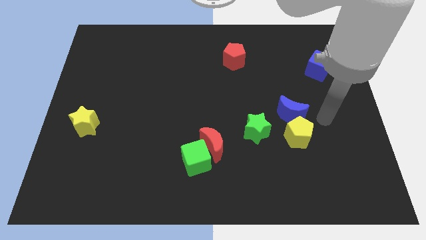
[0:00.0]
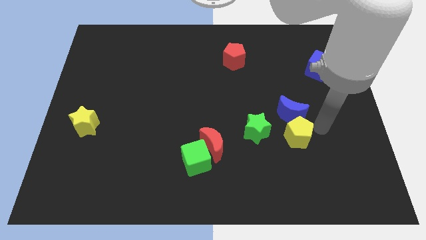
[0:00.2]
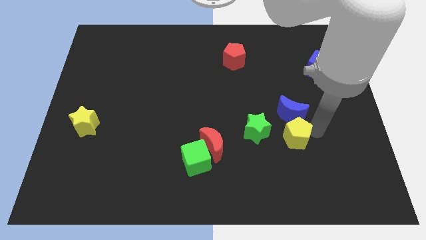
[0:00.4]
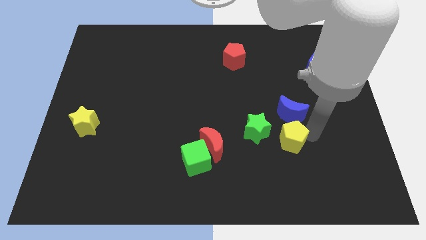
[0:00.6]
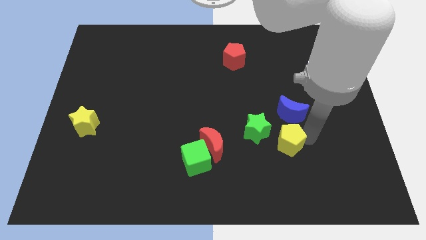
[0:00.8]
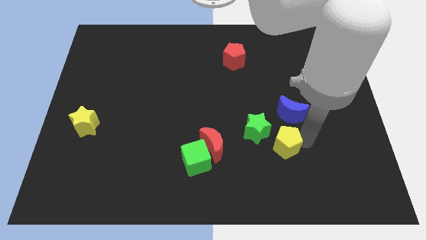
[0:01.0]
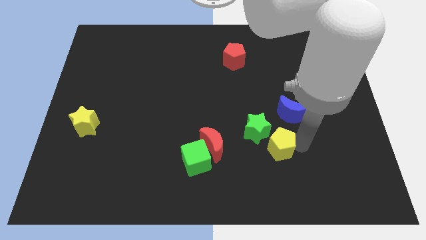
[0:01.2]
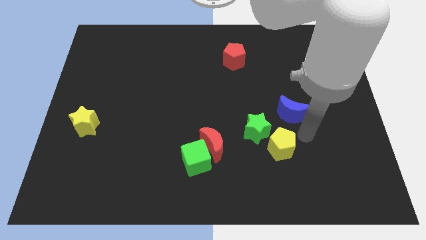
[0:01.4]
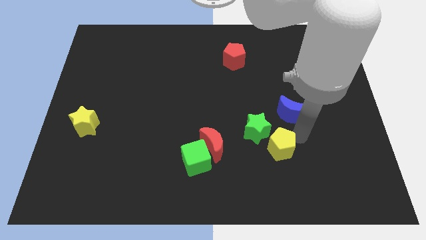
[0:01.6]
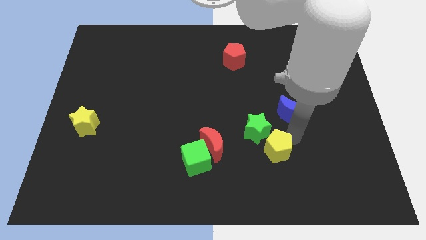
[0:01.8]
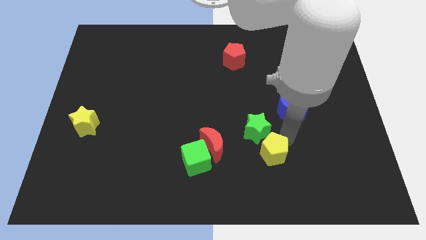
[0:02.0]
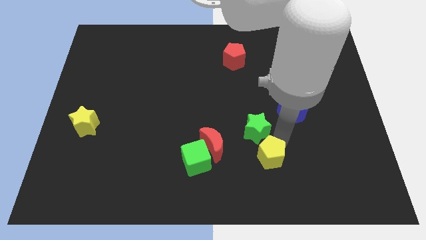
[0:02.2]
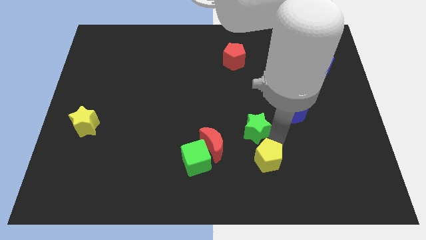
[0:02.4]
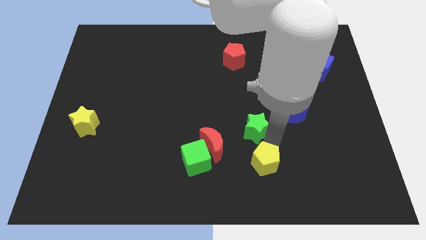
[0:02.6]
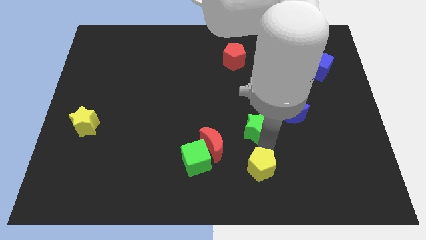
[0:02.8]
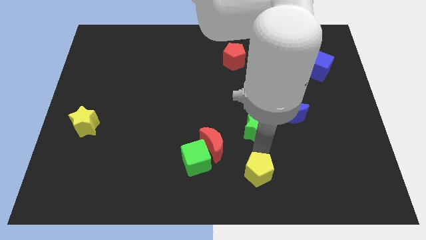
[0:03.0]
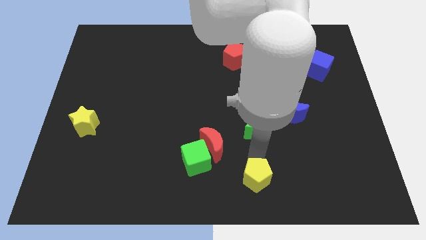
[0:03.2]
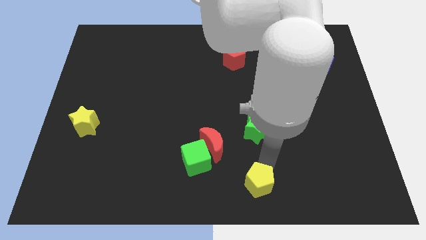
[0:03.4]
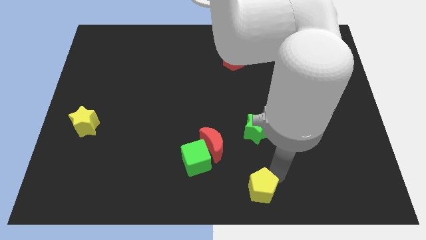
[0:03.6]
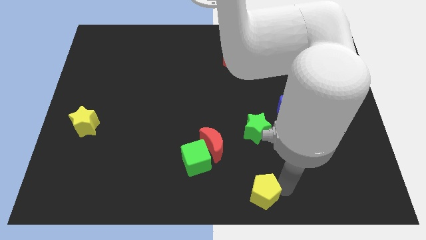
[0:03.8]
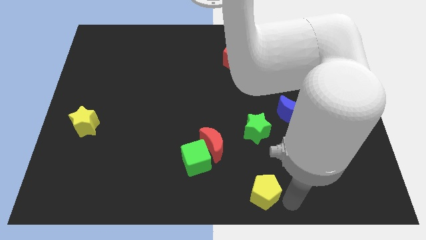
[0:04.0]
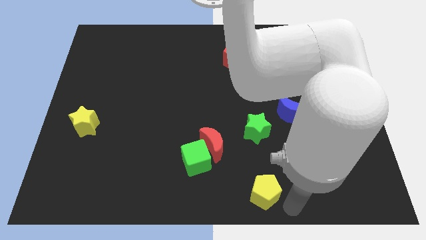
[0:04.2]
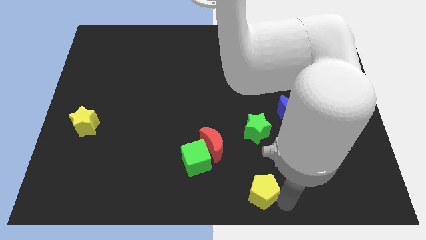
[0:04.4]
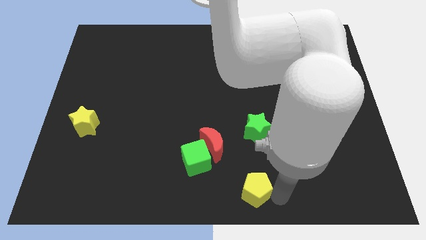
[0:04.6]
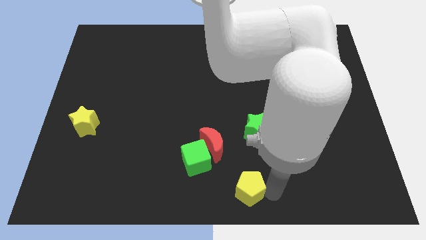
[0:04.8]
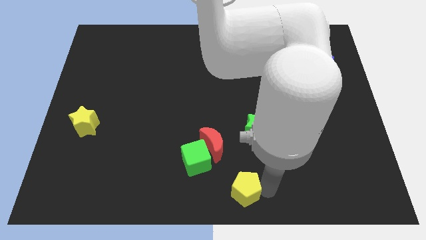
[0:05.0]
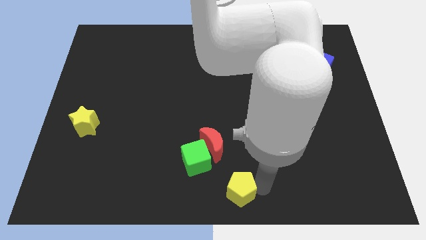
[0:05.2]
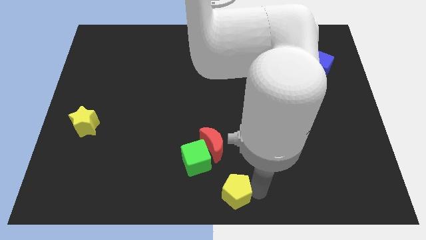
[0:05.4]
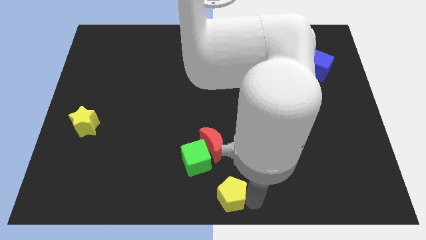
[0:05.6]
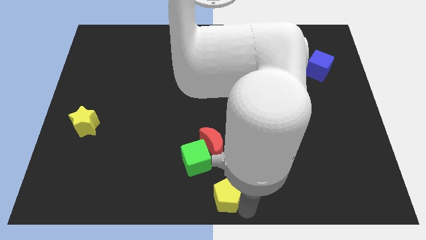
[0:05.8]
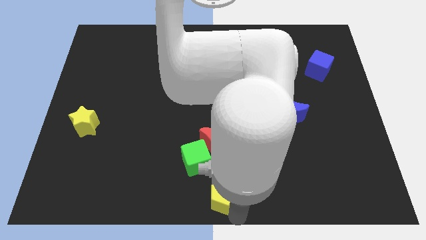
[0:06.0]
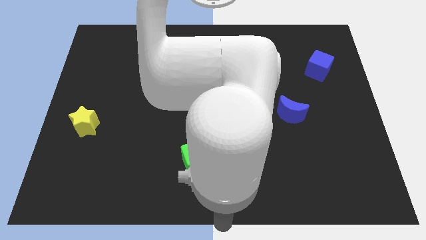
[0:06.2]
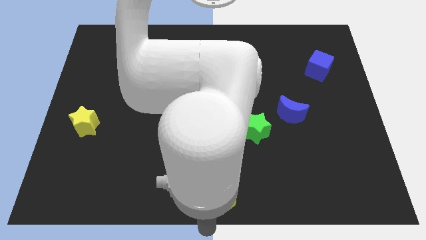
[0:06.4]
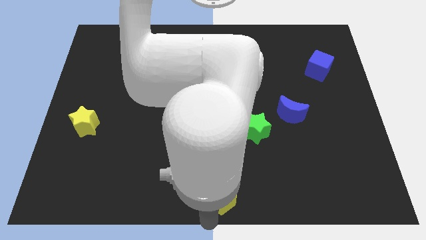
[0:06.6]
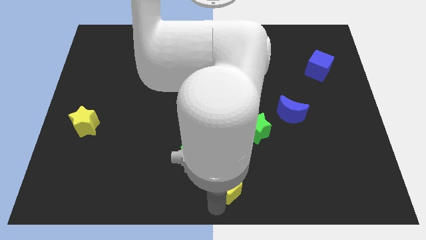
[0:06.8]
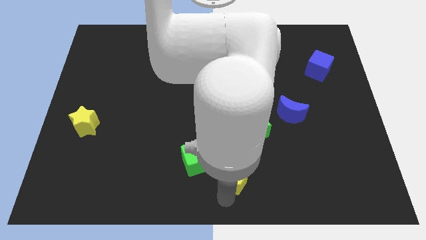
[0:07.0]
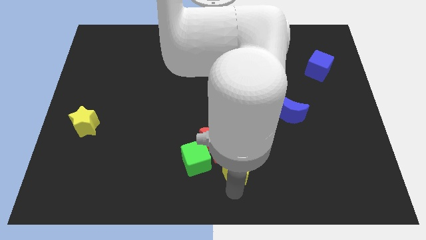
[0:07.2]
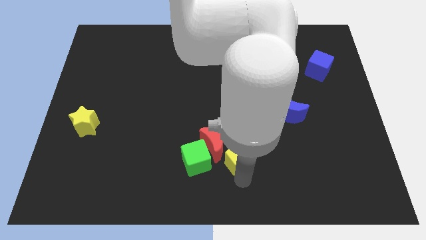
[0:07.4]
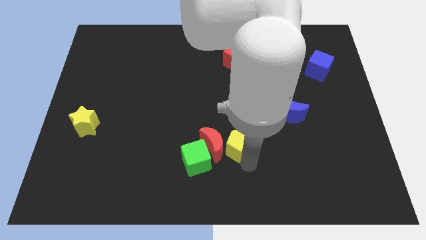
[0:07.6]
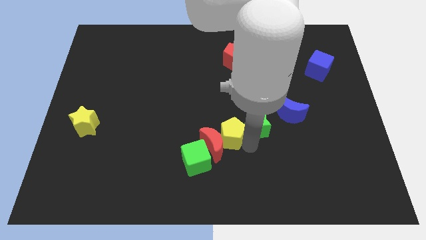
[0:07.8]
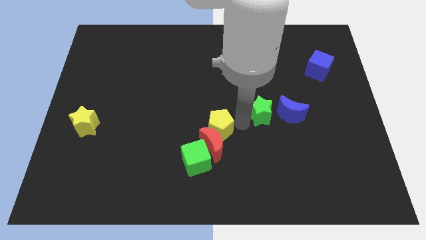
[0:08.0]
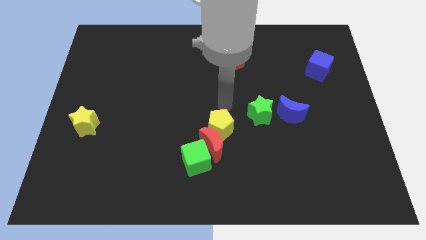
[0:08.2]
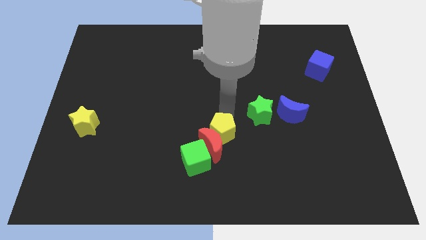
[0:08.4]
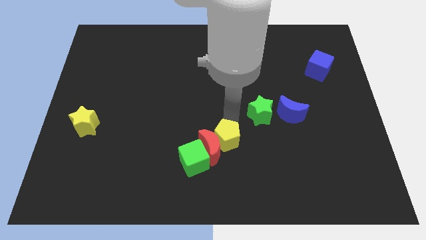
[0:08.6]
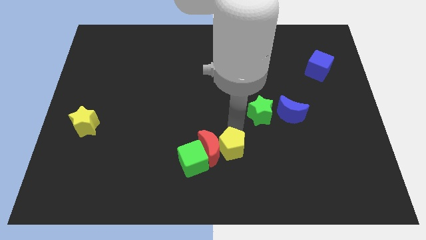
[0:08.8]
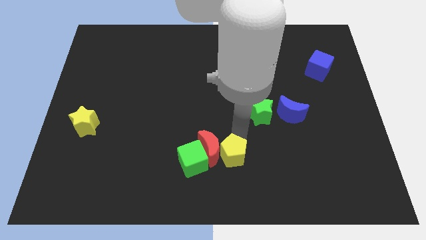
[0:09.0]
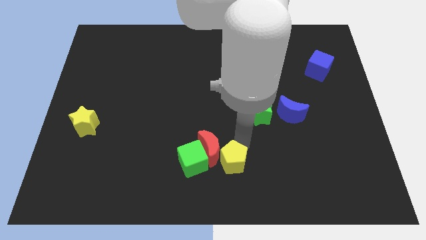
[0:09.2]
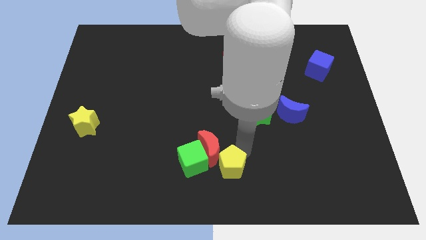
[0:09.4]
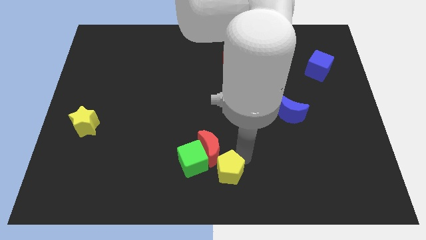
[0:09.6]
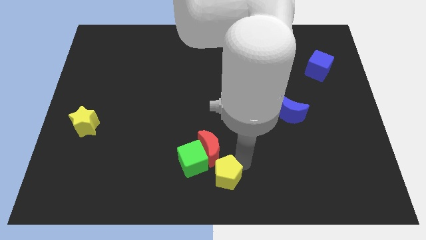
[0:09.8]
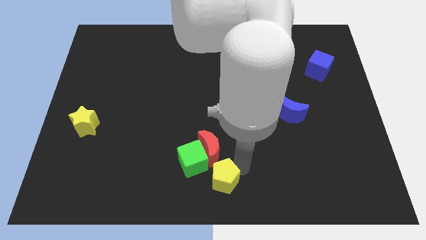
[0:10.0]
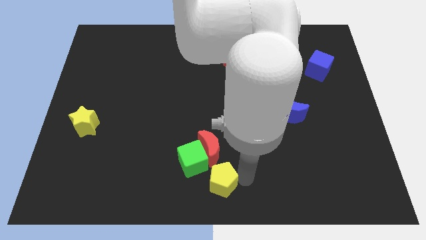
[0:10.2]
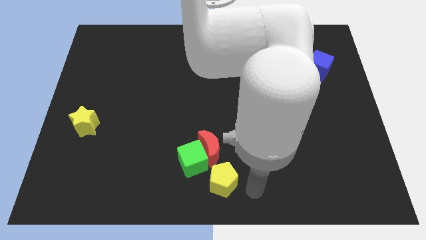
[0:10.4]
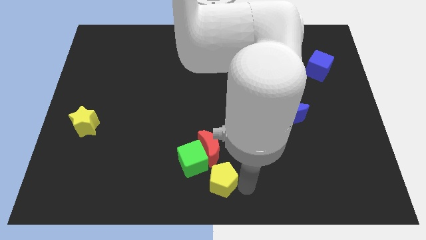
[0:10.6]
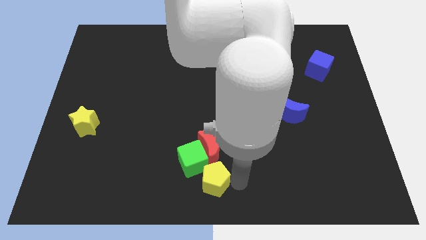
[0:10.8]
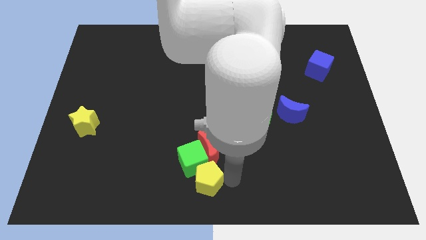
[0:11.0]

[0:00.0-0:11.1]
push the yellow pentagon to the bottom left side of the red moon
